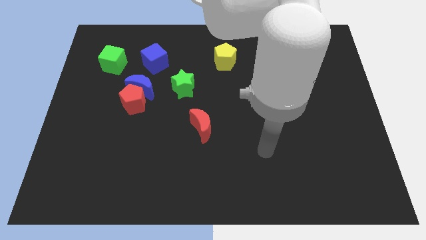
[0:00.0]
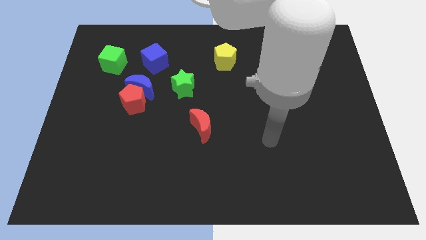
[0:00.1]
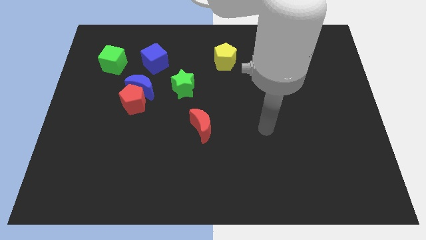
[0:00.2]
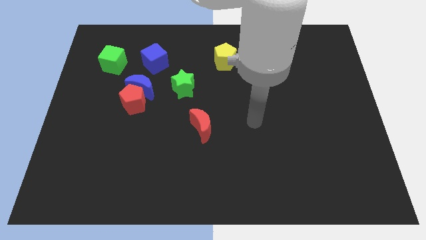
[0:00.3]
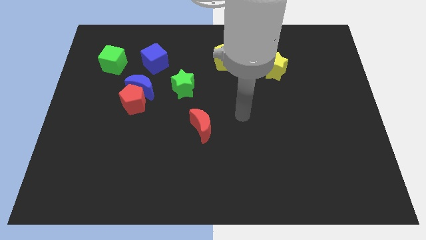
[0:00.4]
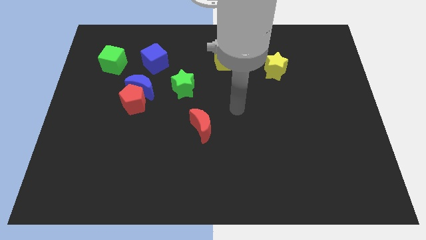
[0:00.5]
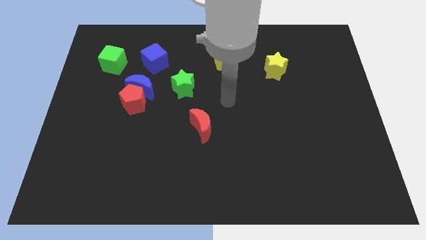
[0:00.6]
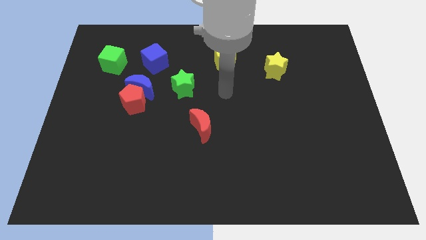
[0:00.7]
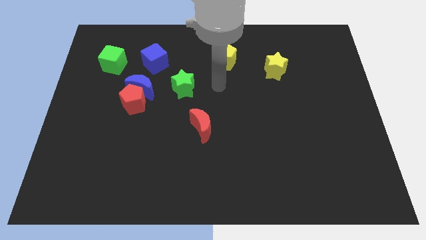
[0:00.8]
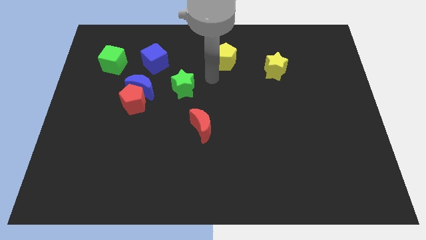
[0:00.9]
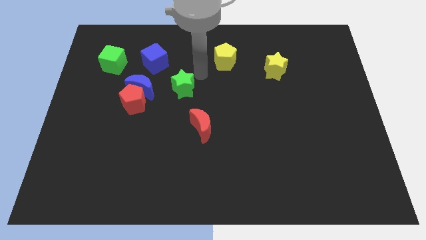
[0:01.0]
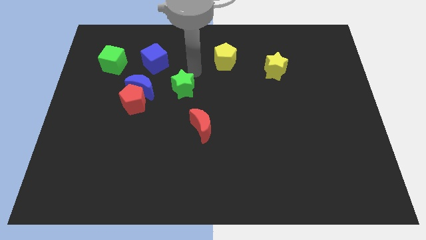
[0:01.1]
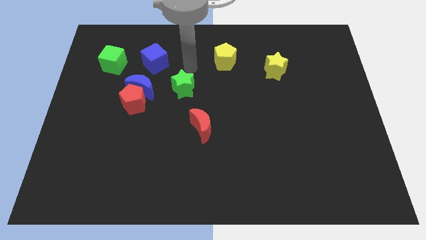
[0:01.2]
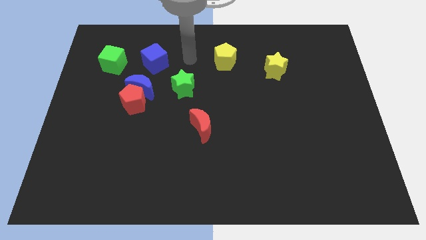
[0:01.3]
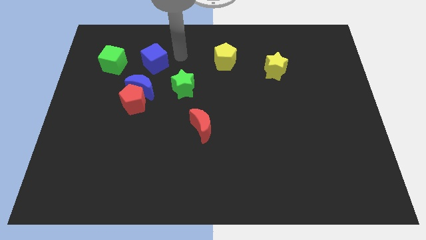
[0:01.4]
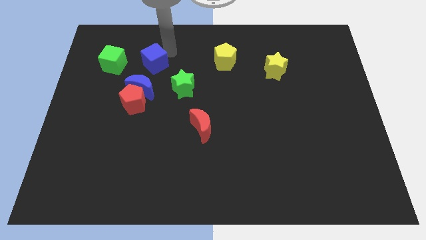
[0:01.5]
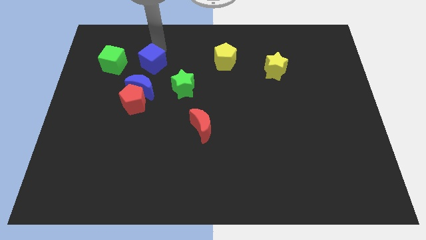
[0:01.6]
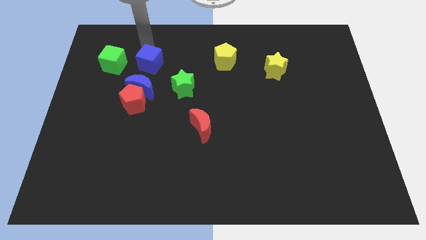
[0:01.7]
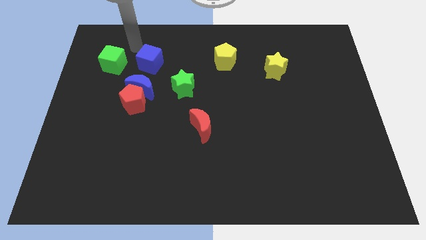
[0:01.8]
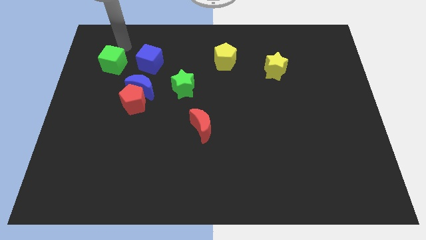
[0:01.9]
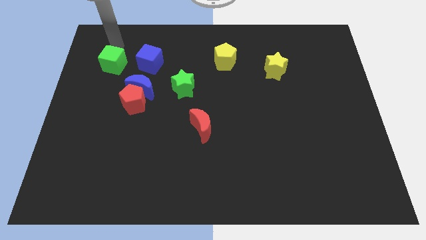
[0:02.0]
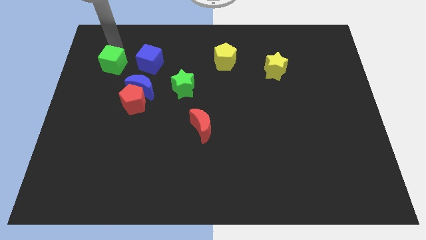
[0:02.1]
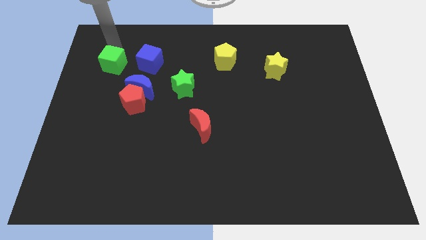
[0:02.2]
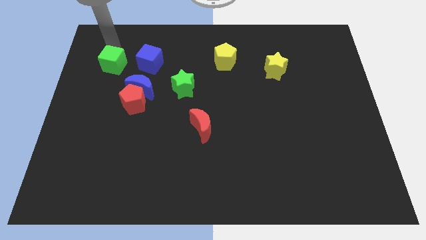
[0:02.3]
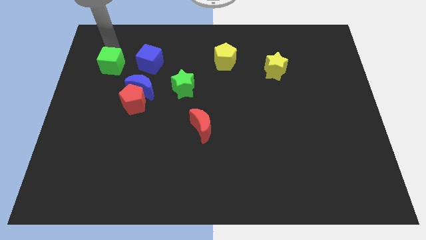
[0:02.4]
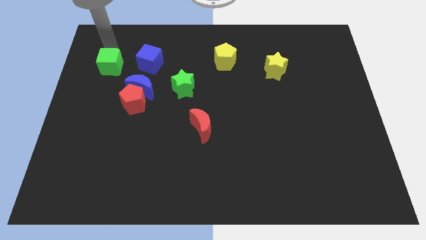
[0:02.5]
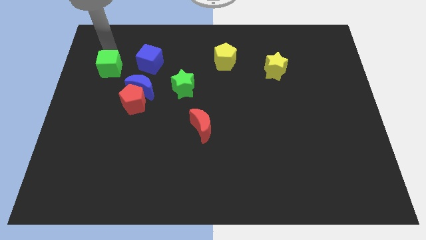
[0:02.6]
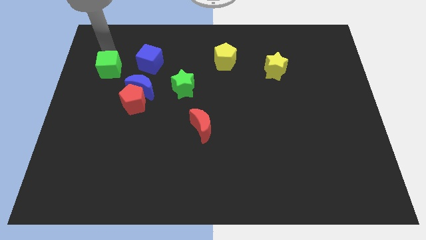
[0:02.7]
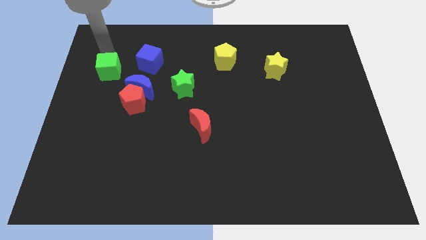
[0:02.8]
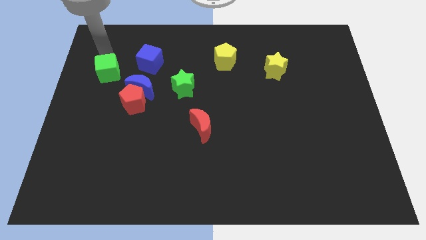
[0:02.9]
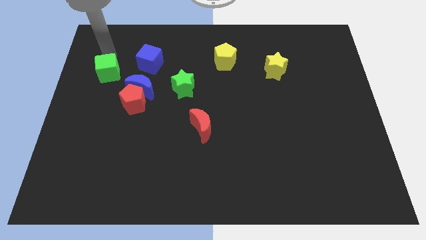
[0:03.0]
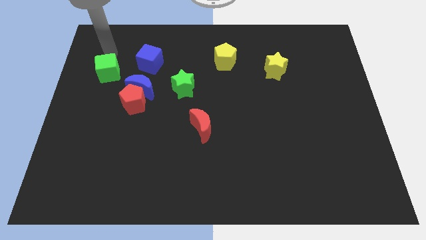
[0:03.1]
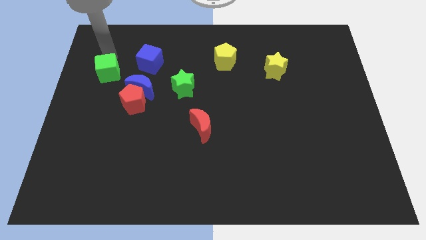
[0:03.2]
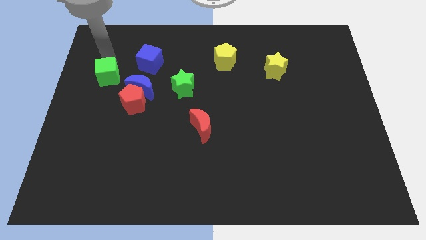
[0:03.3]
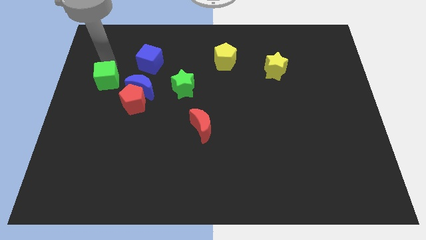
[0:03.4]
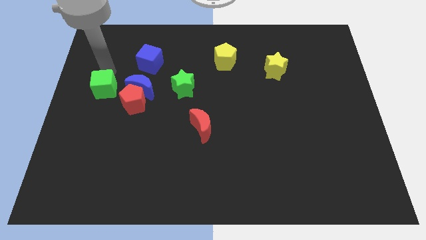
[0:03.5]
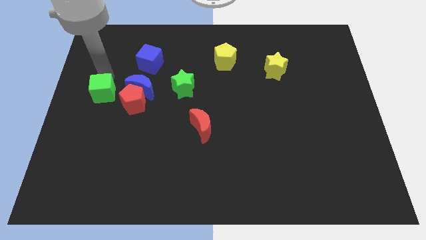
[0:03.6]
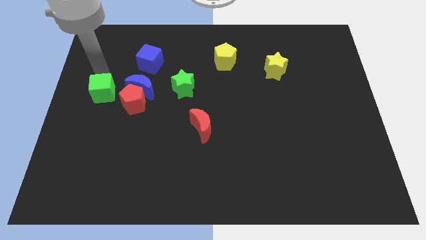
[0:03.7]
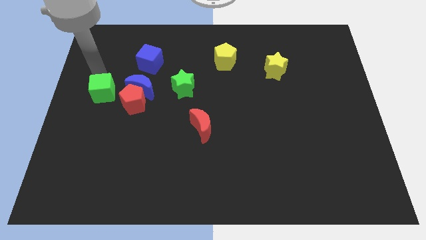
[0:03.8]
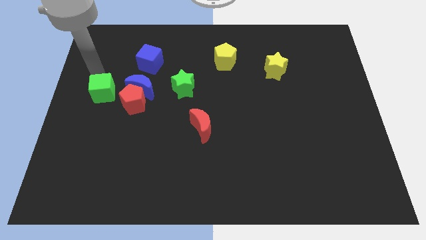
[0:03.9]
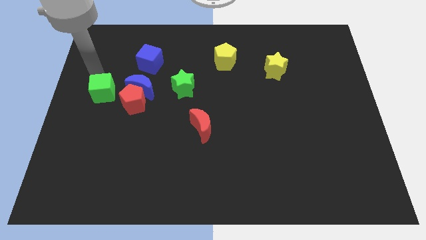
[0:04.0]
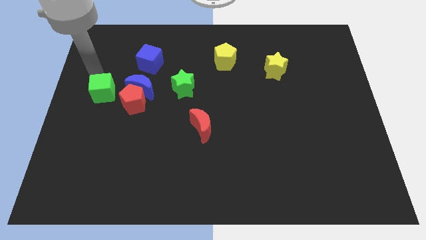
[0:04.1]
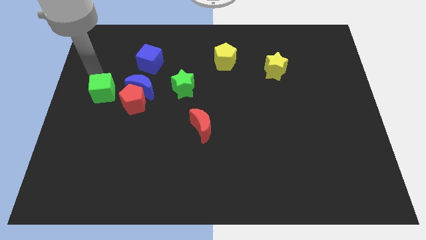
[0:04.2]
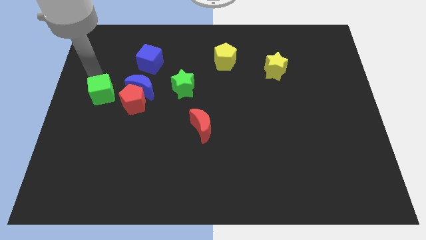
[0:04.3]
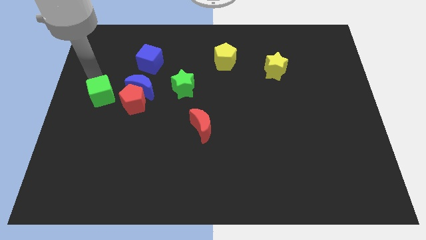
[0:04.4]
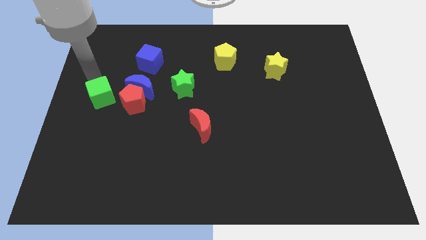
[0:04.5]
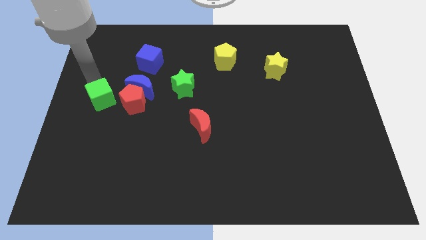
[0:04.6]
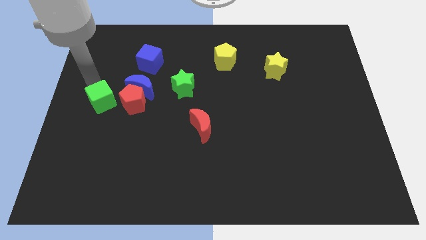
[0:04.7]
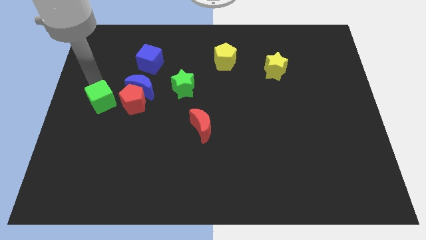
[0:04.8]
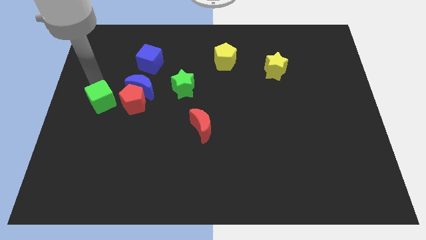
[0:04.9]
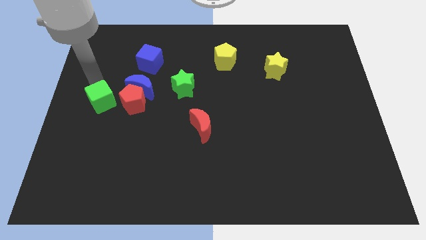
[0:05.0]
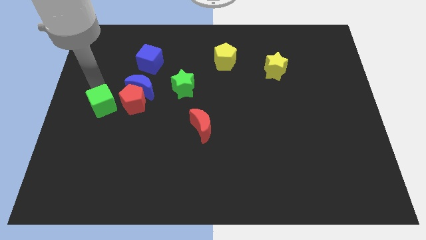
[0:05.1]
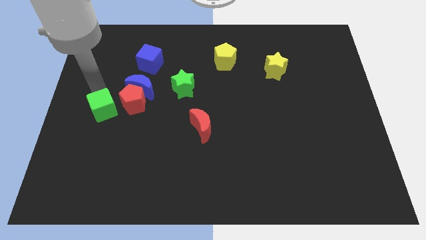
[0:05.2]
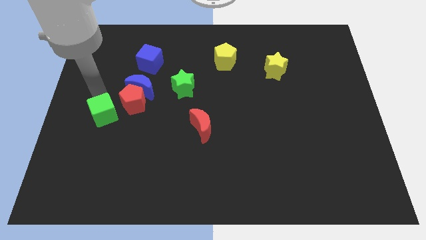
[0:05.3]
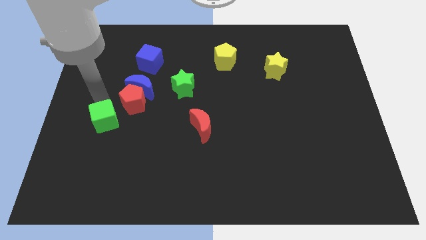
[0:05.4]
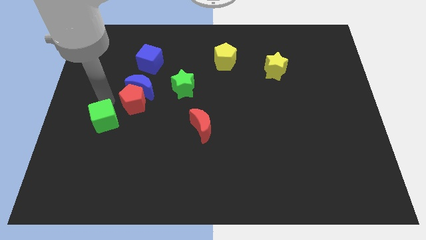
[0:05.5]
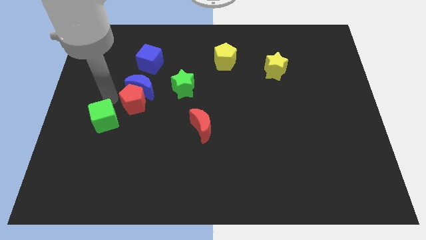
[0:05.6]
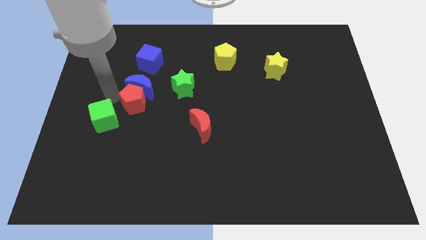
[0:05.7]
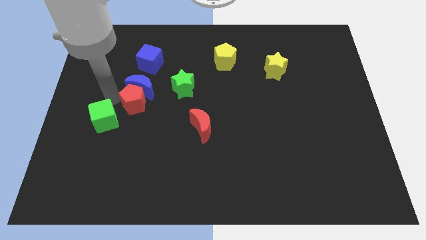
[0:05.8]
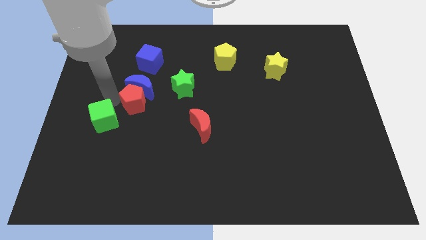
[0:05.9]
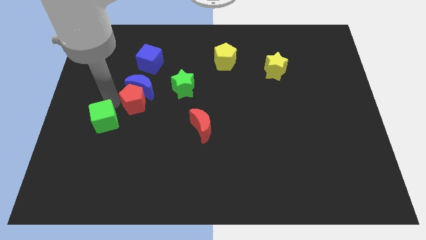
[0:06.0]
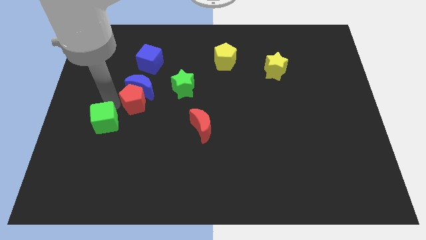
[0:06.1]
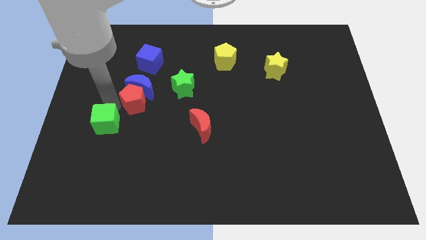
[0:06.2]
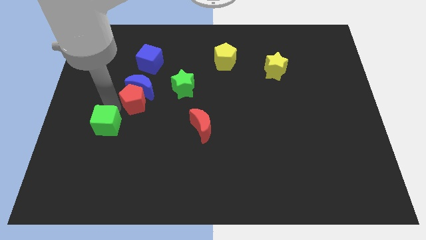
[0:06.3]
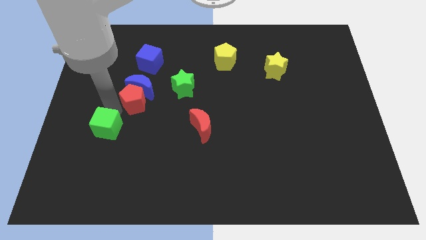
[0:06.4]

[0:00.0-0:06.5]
push the green cube downwards

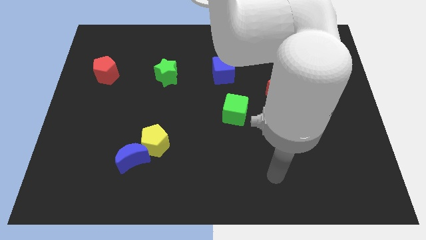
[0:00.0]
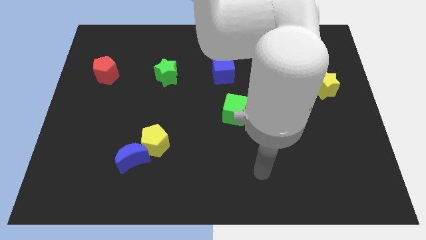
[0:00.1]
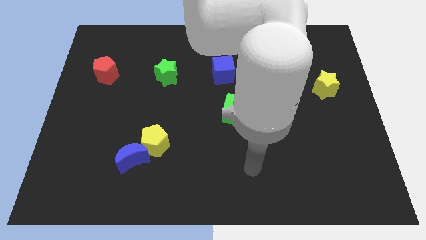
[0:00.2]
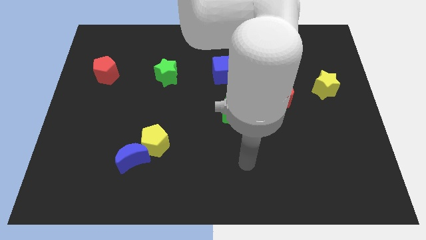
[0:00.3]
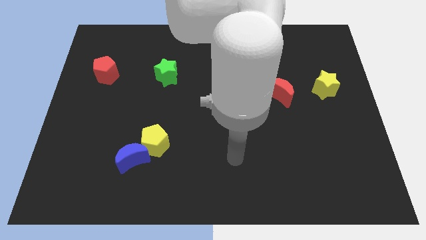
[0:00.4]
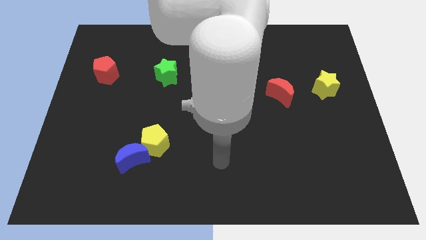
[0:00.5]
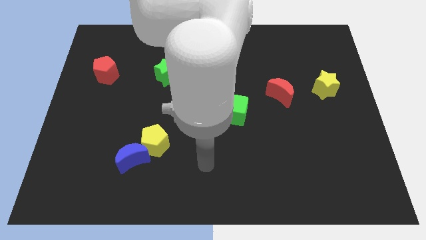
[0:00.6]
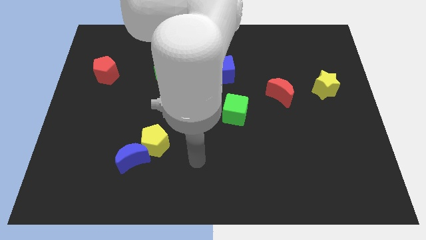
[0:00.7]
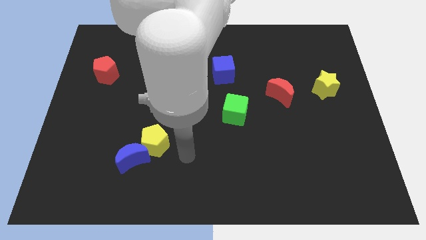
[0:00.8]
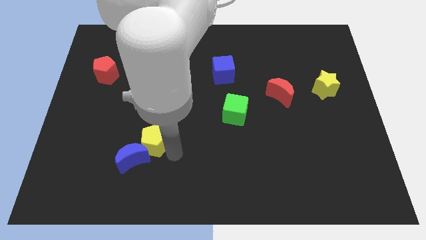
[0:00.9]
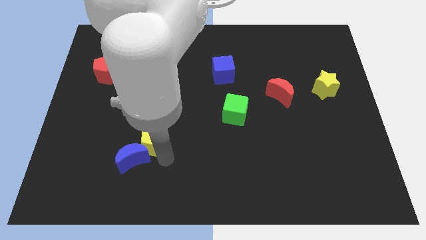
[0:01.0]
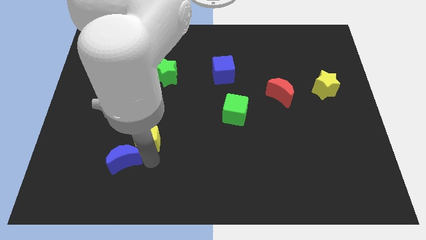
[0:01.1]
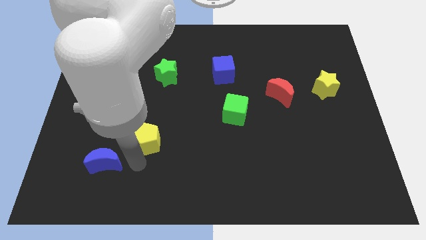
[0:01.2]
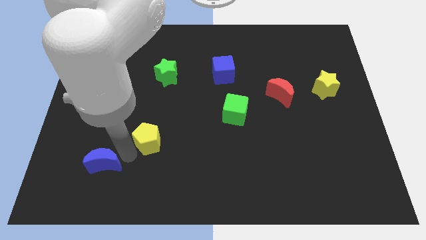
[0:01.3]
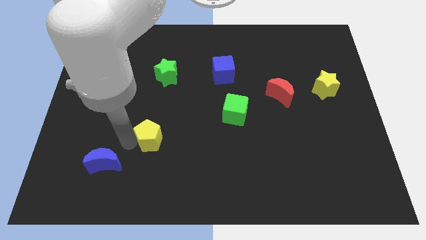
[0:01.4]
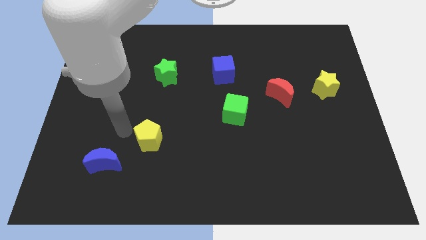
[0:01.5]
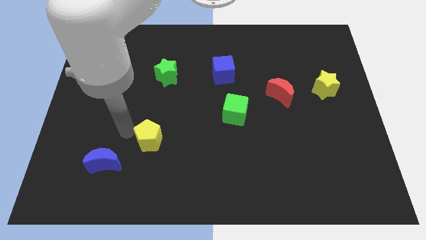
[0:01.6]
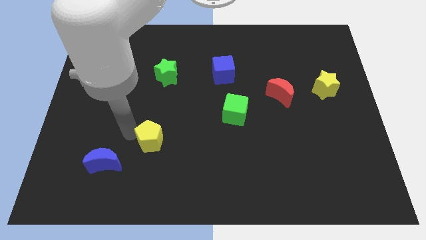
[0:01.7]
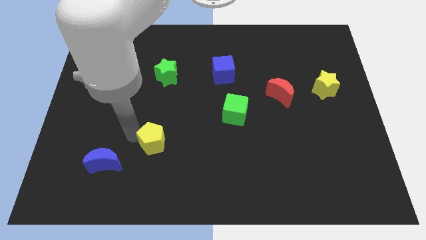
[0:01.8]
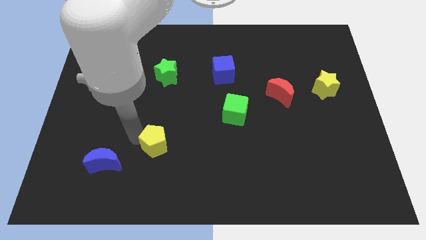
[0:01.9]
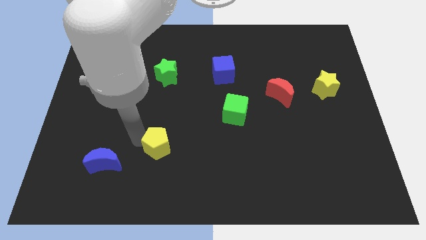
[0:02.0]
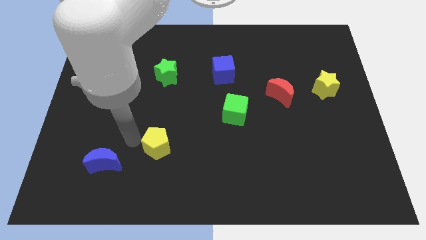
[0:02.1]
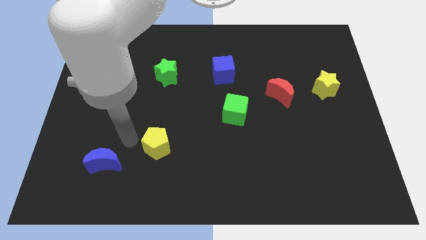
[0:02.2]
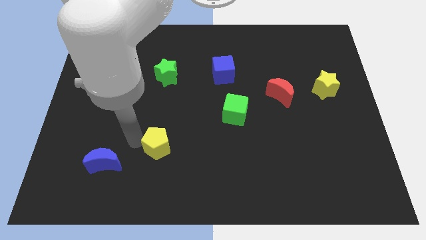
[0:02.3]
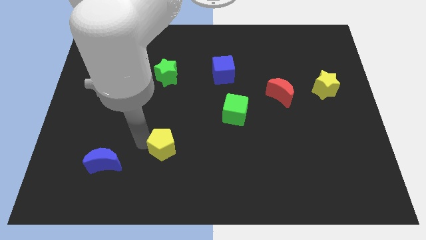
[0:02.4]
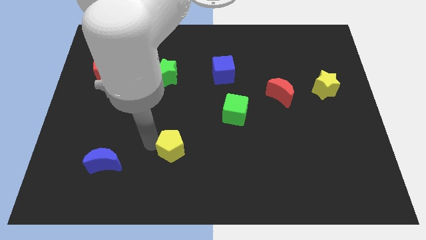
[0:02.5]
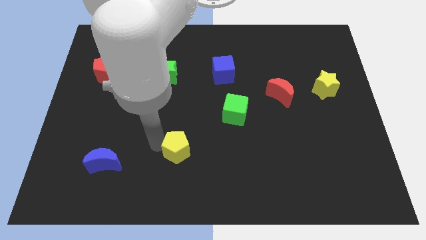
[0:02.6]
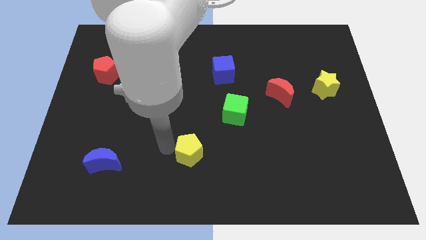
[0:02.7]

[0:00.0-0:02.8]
slightly move the yellow pentagon to the right
